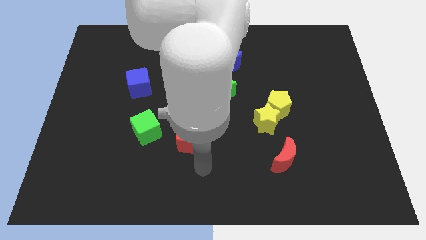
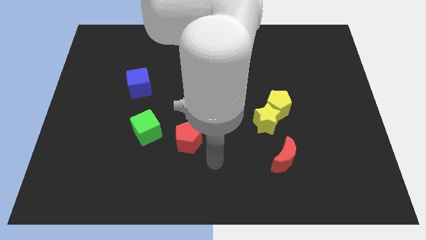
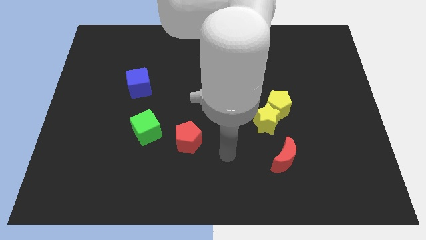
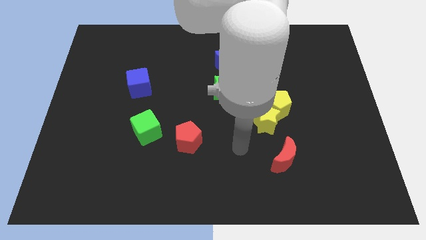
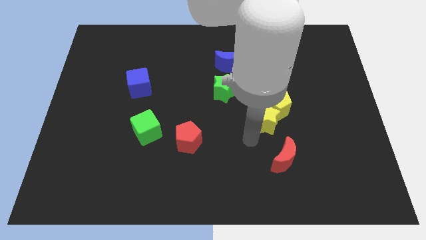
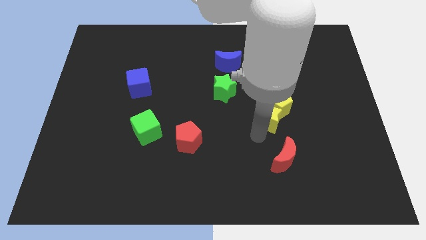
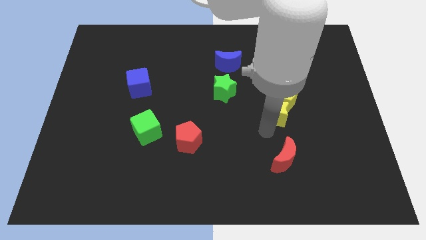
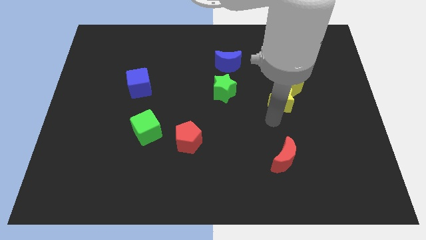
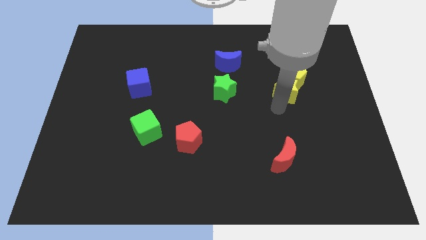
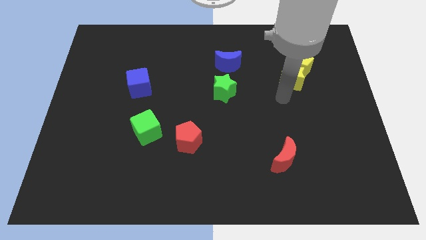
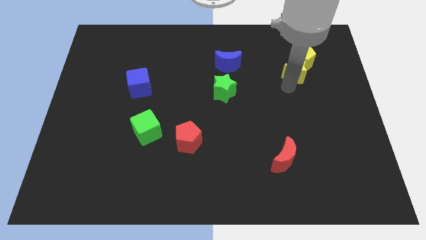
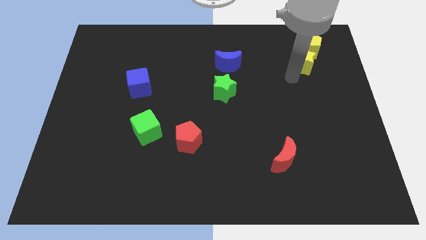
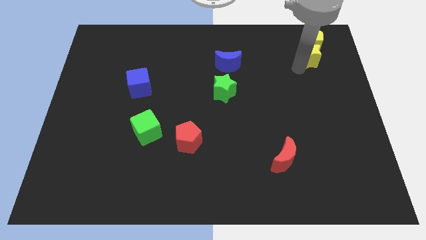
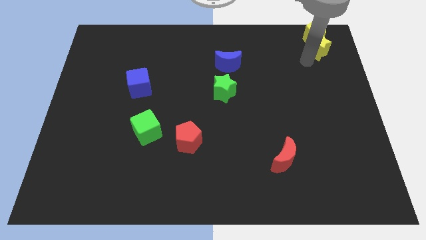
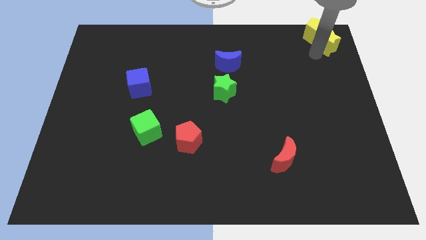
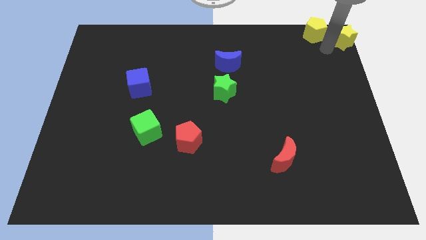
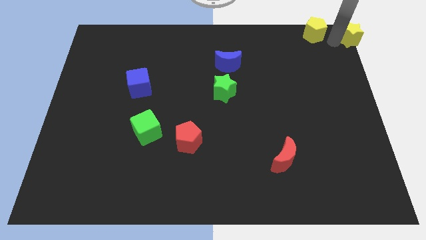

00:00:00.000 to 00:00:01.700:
pull the yellow pentagon apart from the yellow star

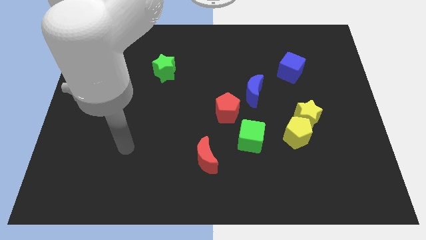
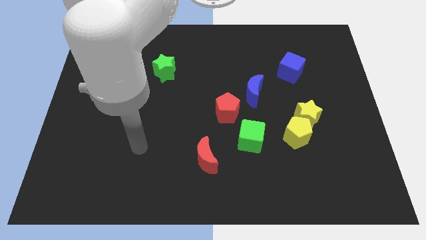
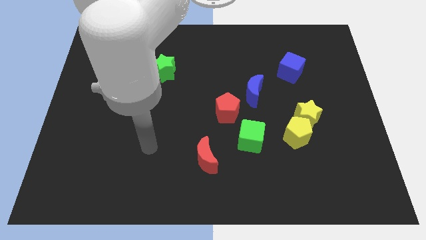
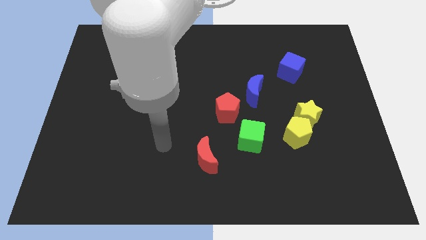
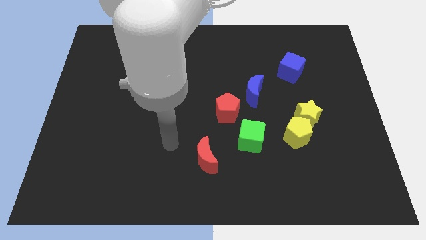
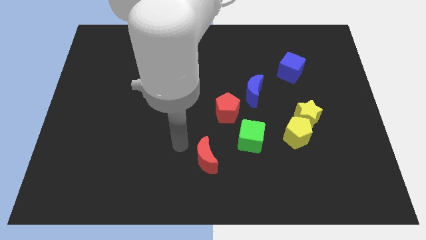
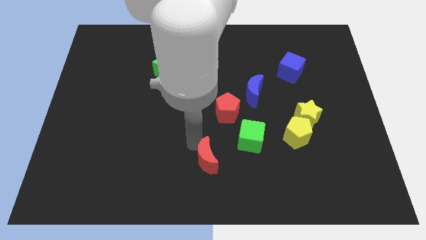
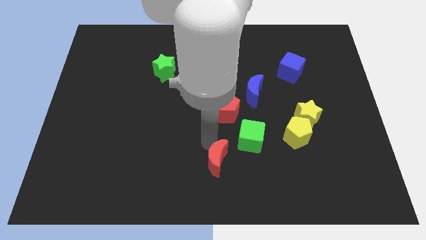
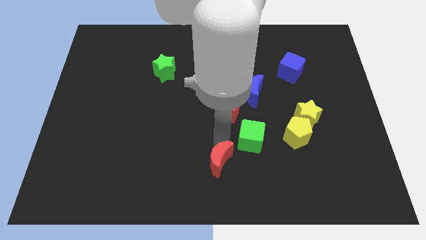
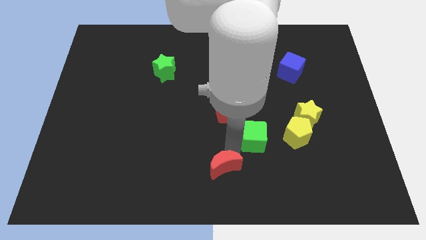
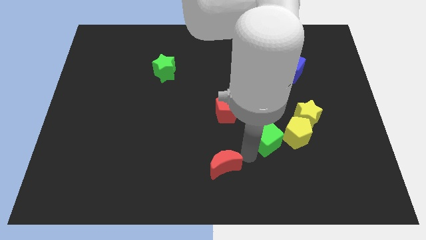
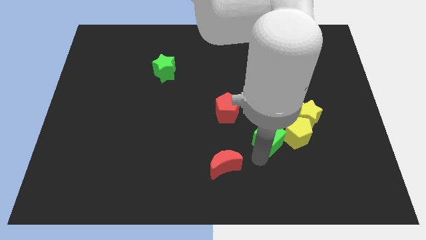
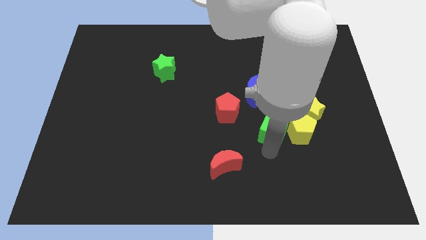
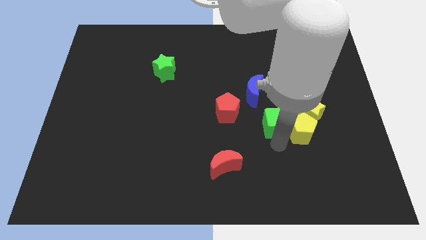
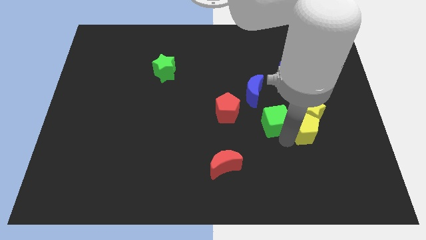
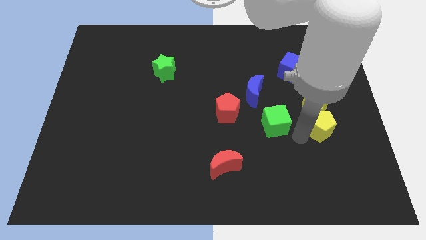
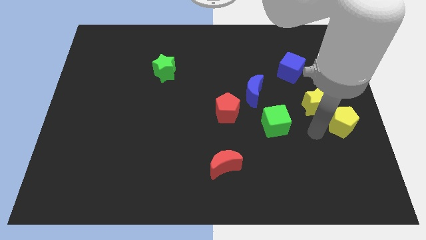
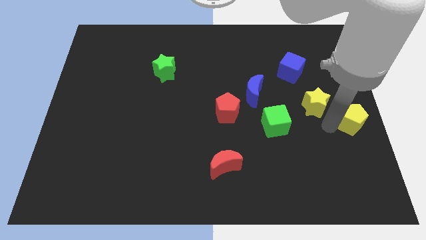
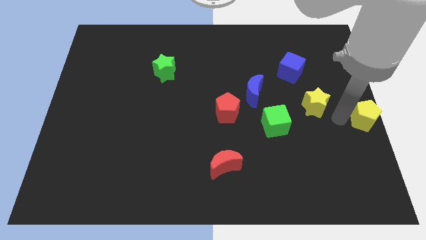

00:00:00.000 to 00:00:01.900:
separate the yellow star from the yellow pentagon

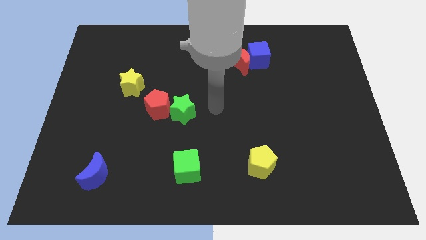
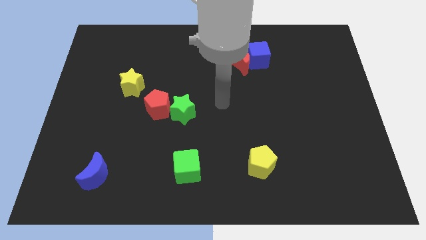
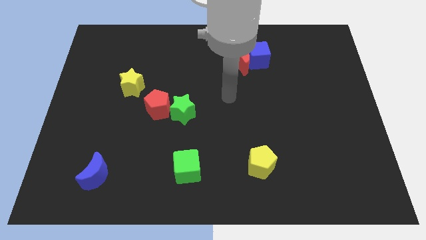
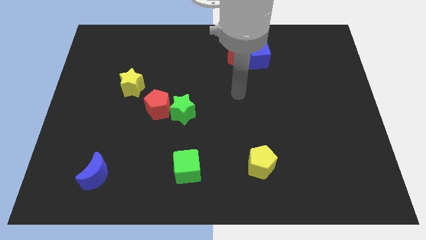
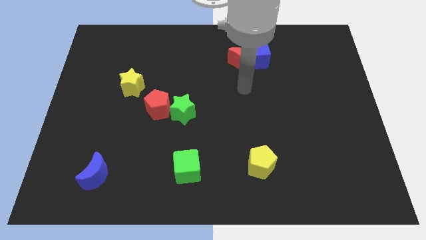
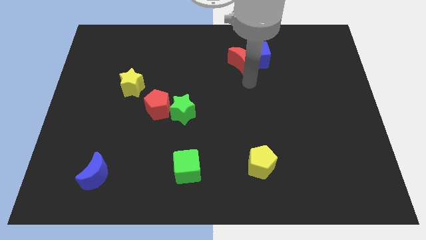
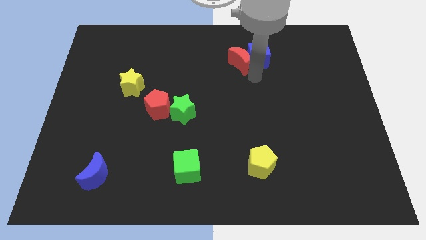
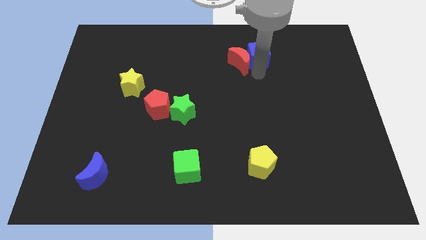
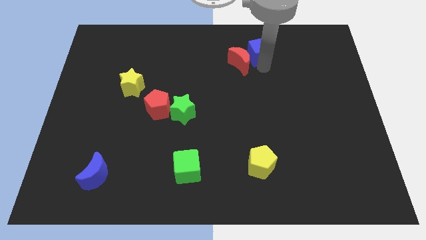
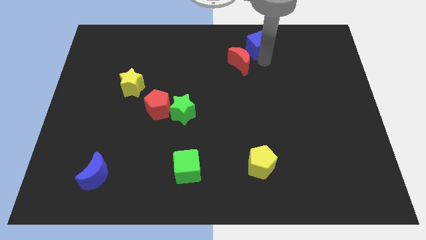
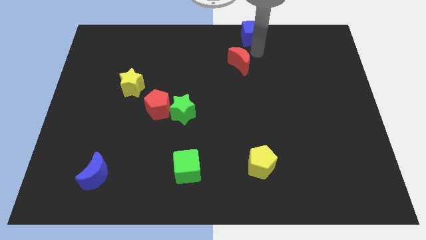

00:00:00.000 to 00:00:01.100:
move the red moon away from the blue cube

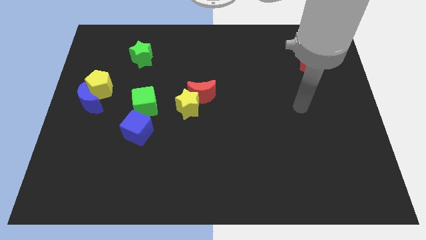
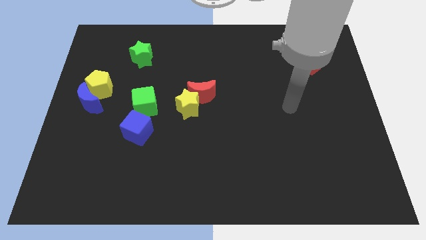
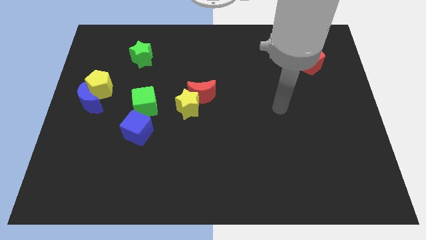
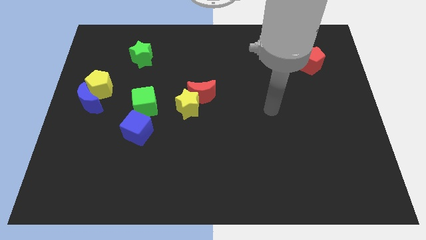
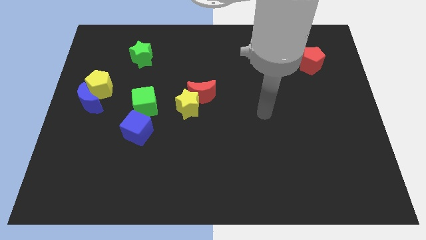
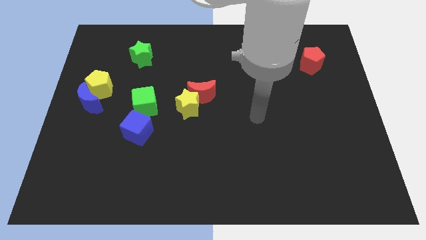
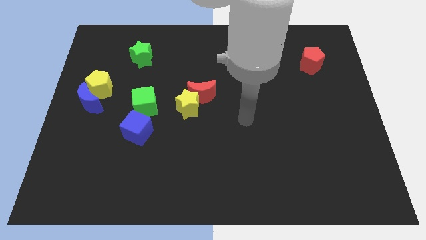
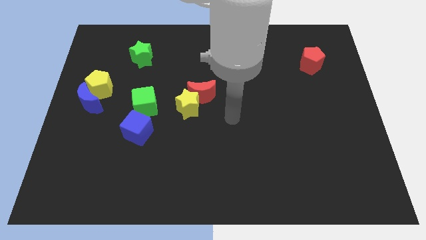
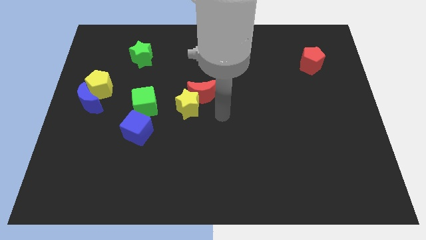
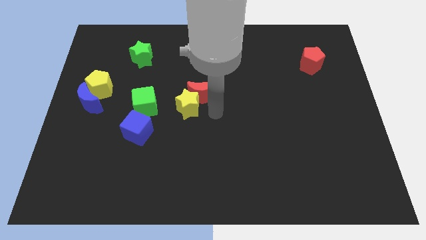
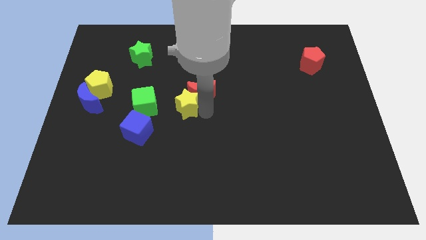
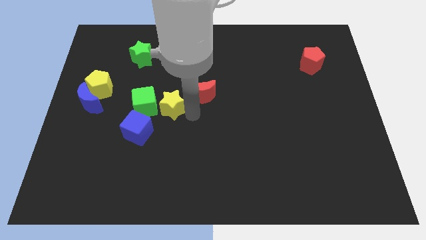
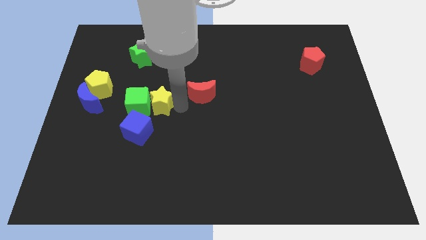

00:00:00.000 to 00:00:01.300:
separate the red moon from the yellow star

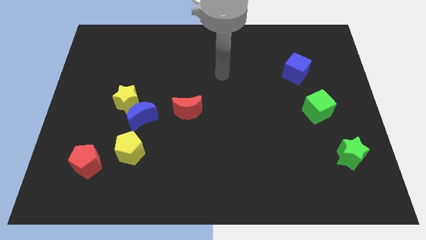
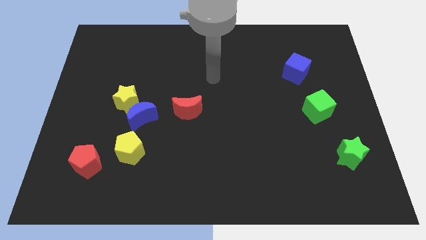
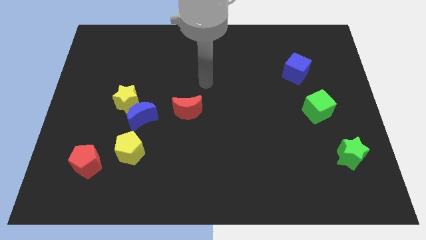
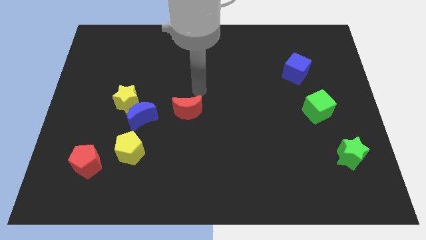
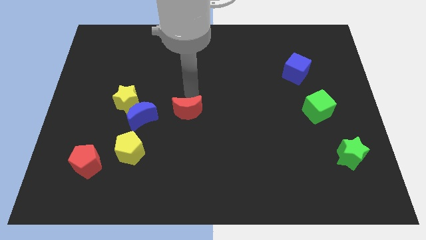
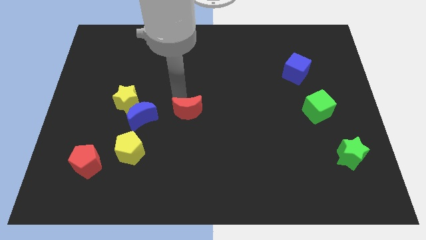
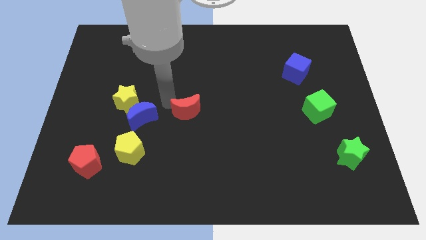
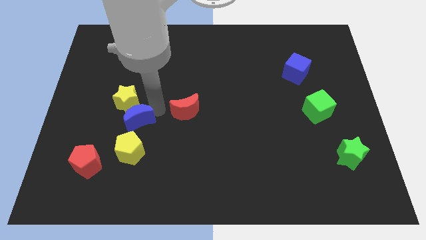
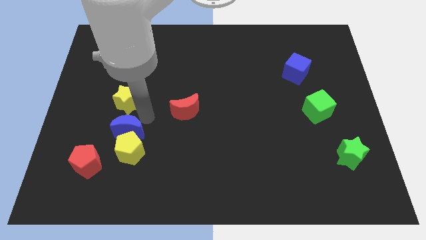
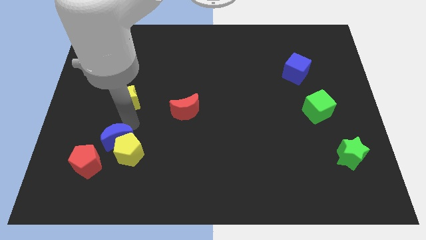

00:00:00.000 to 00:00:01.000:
separate the yellow star from the blue moon

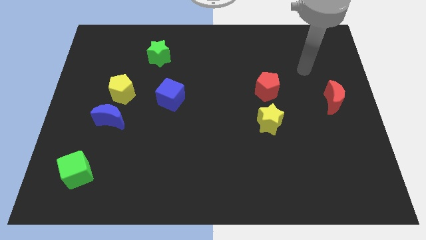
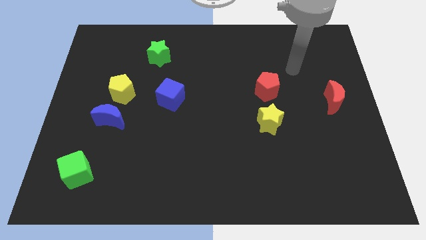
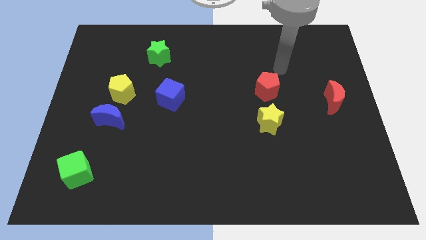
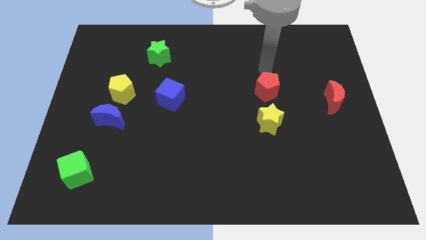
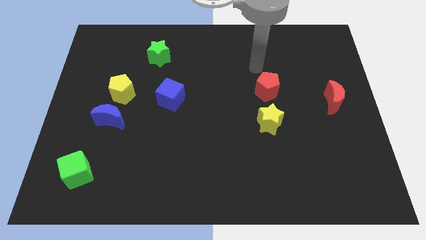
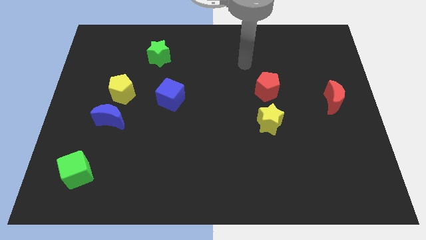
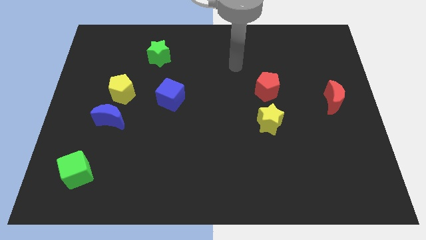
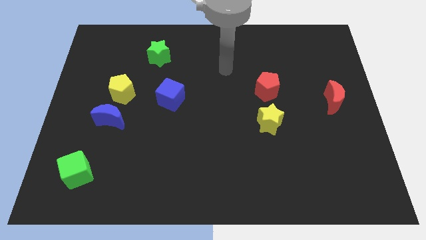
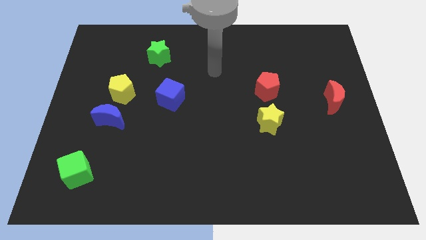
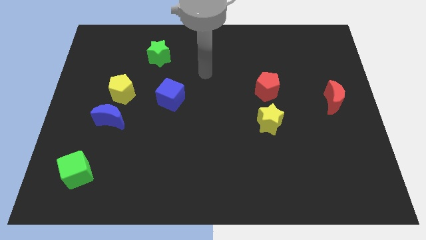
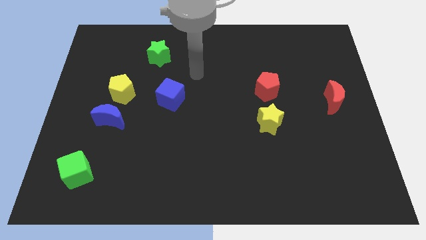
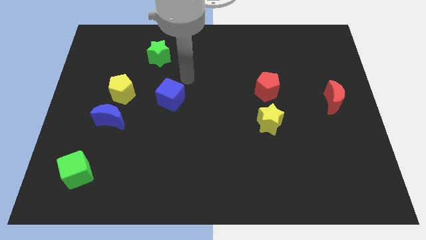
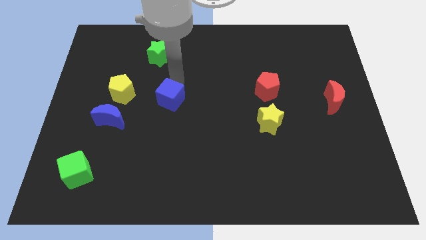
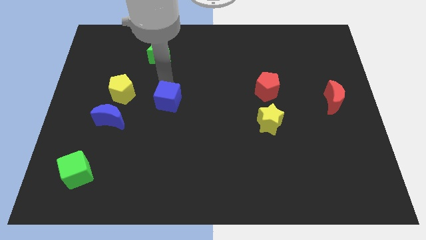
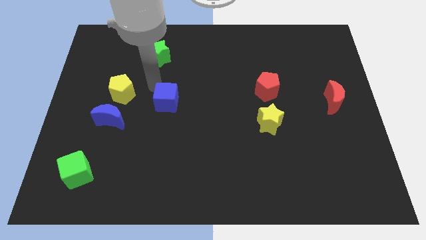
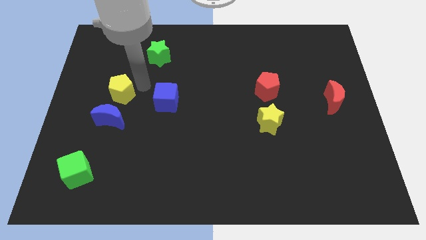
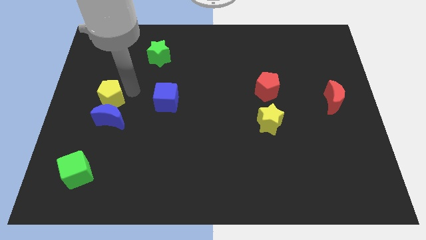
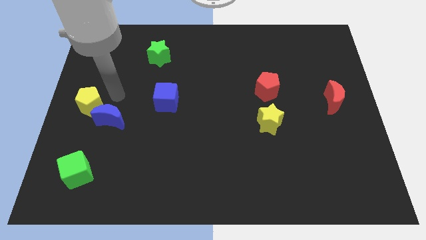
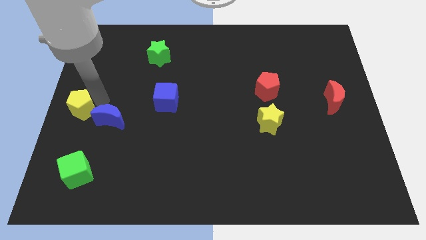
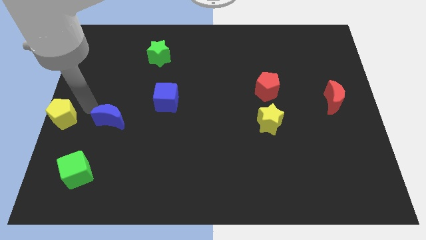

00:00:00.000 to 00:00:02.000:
separate the blue moon from the yellow pentagon

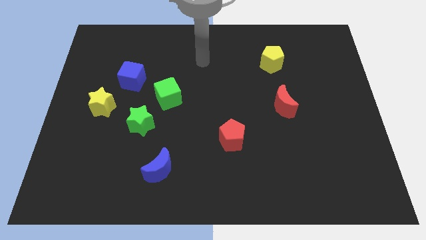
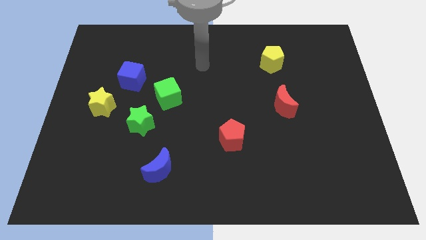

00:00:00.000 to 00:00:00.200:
pull the green cube apart from the green star
